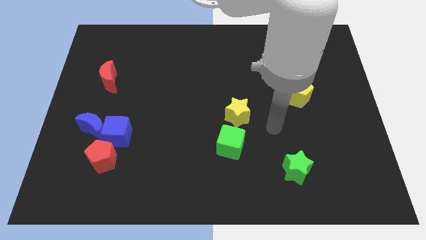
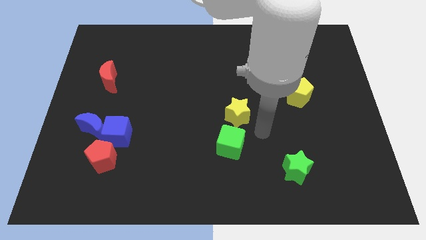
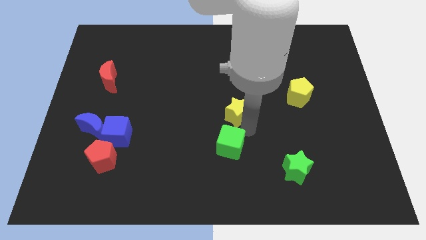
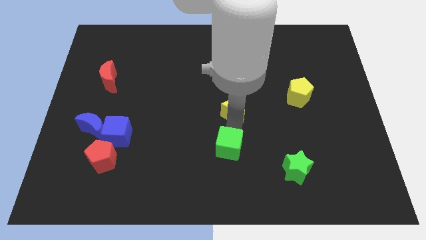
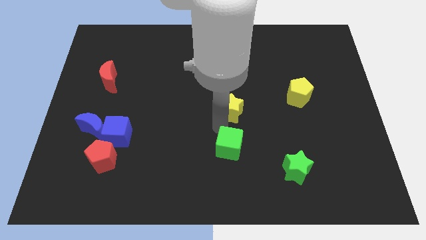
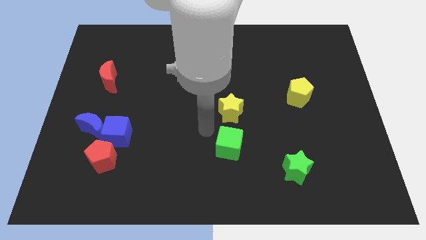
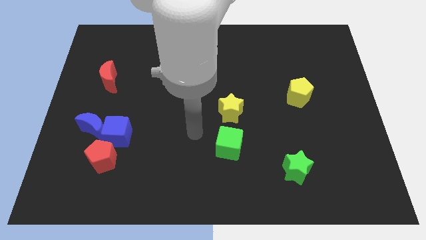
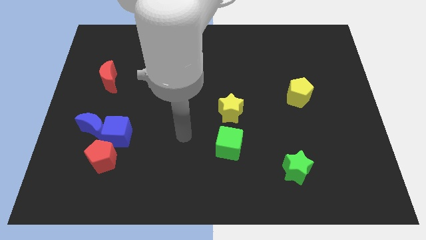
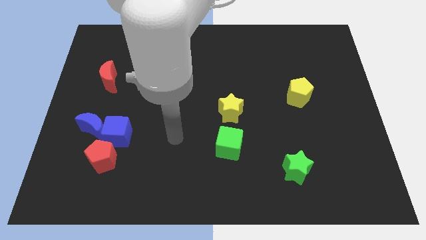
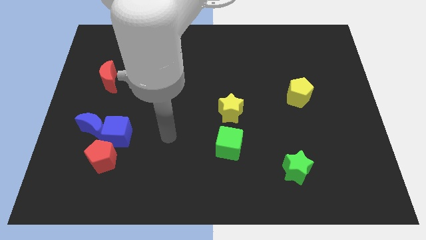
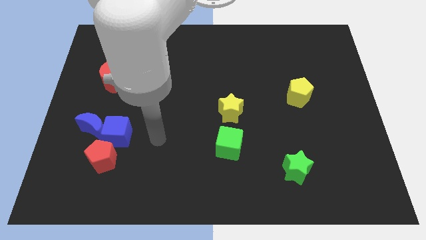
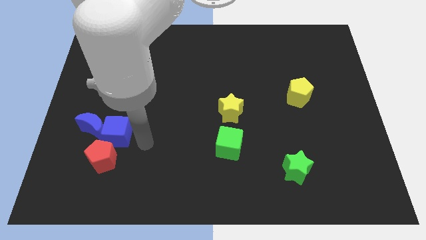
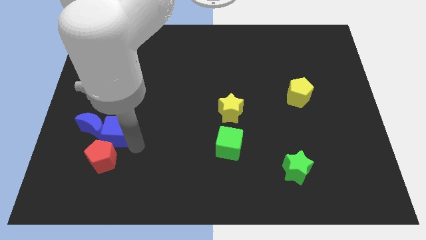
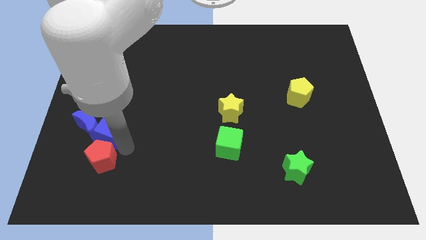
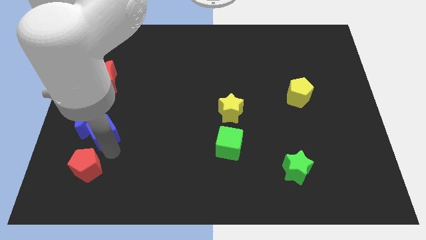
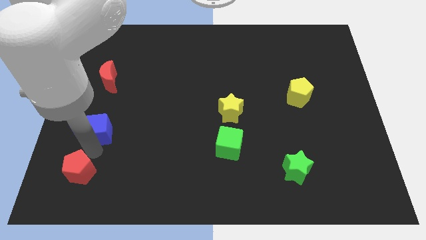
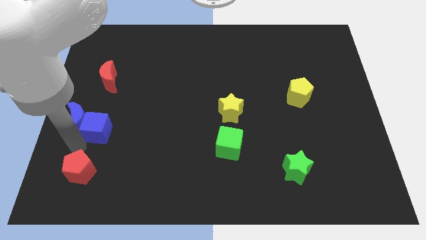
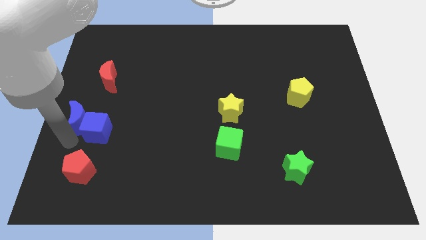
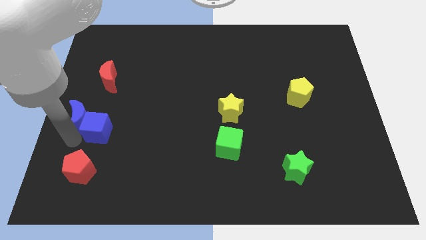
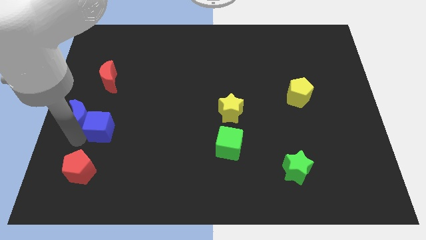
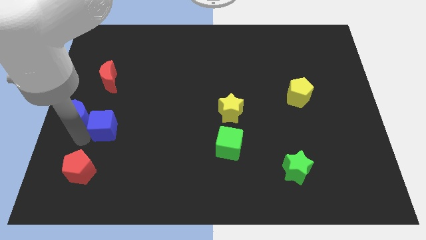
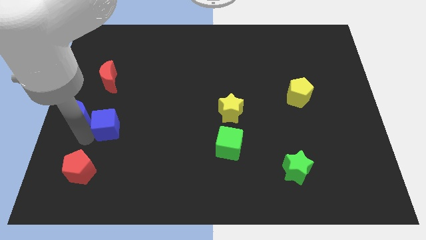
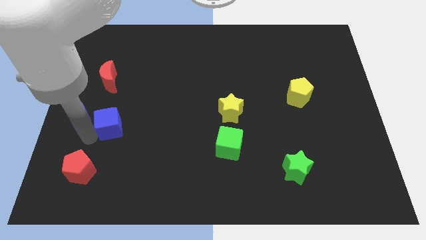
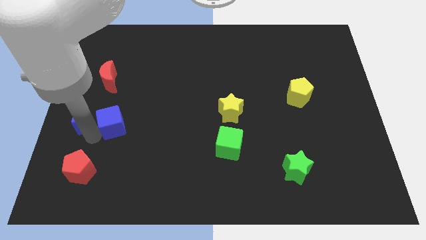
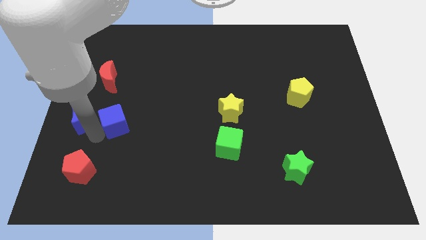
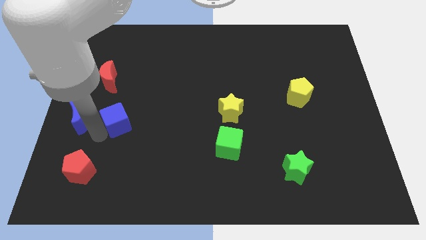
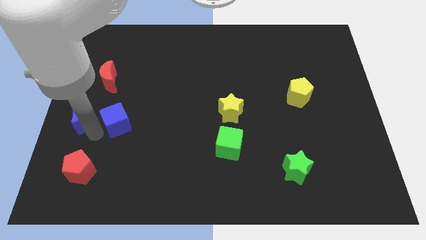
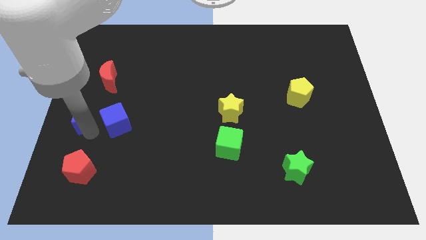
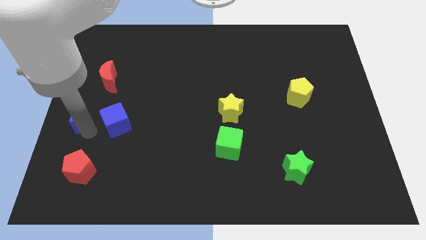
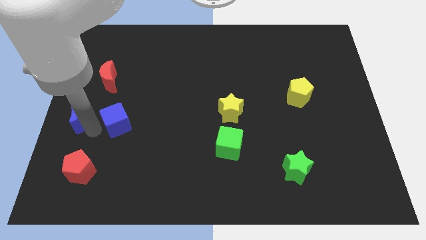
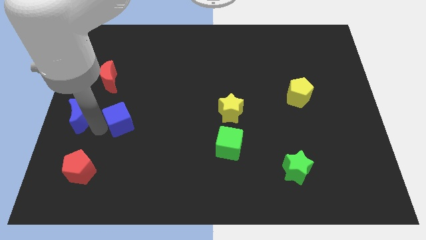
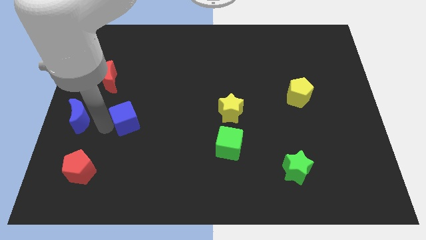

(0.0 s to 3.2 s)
separate the blue cube from the blue moon and red pentagon

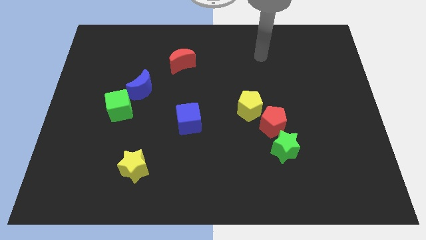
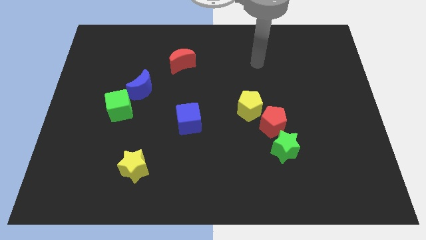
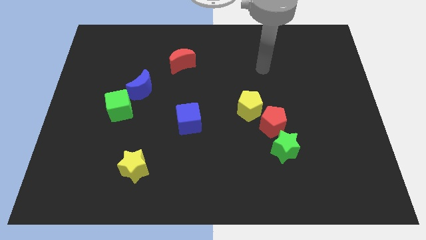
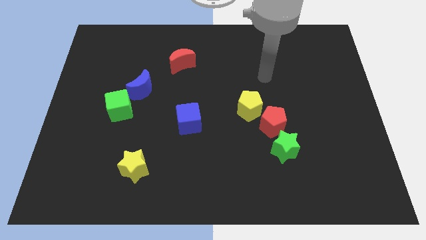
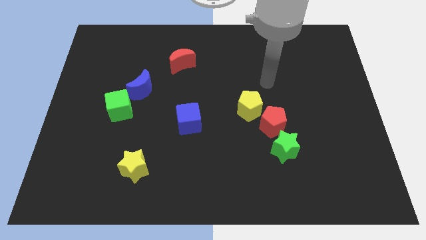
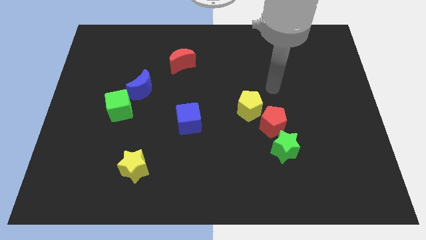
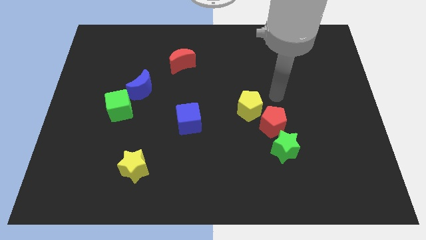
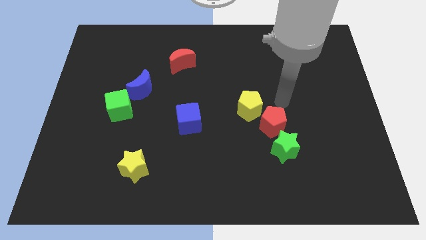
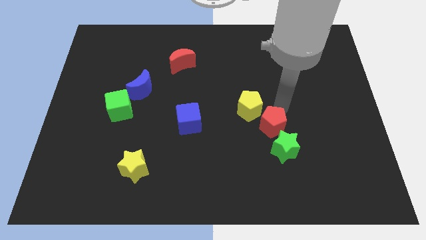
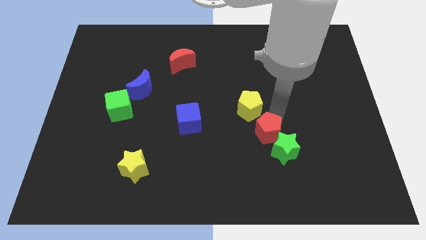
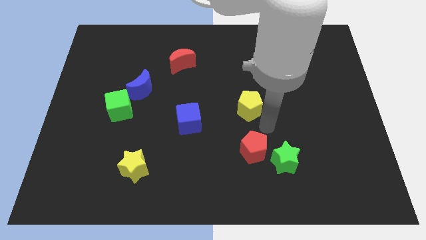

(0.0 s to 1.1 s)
separate the yellow pentagon from the red pentagon

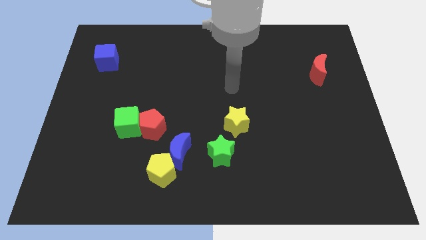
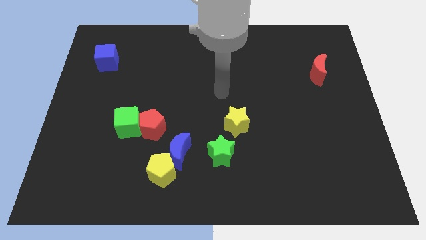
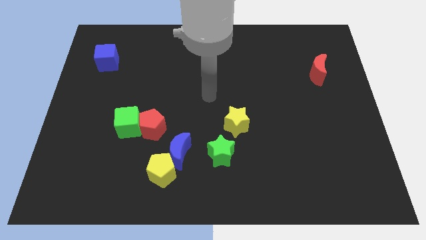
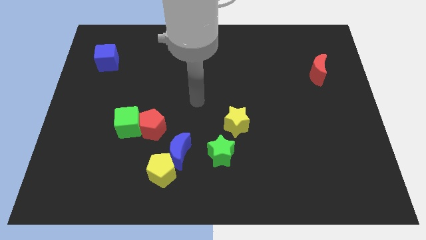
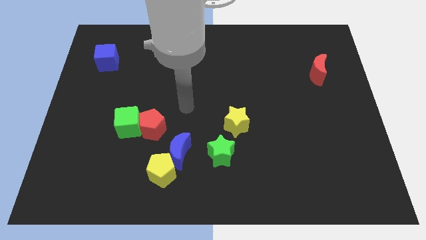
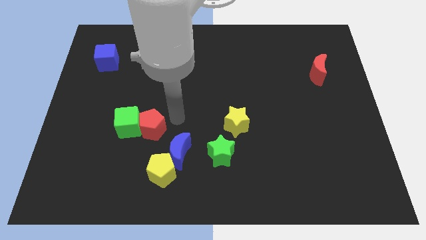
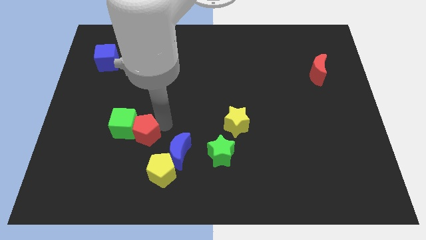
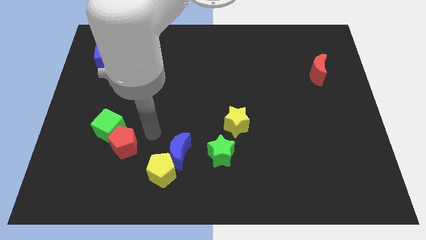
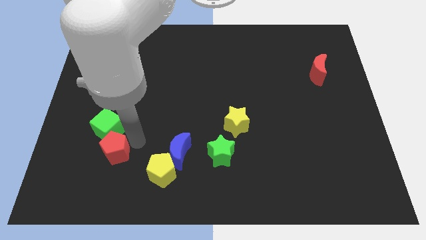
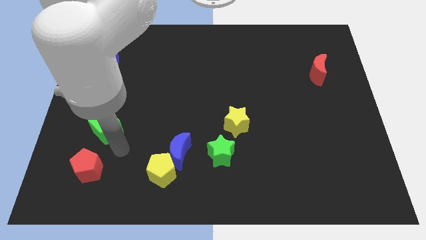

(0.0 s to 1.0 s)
move the green cube away from the red pentagon

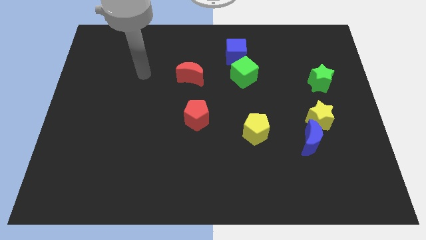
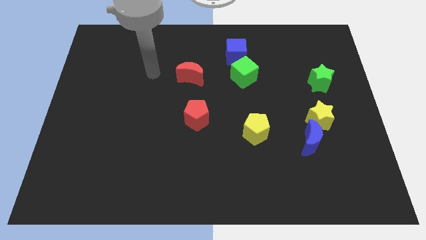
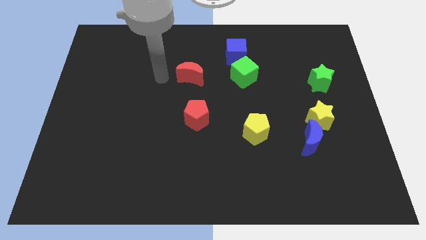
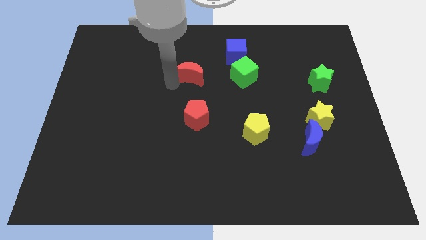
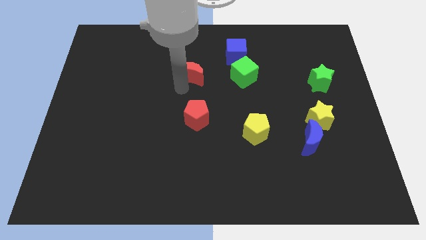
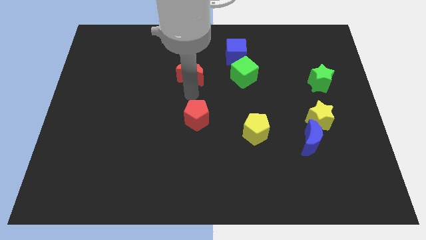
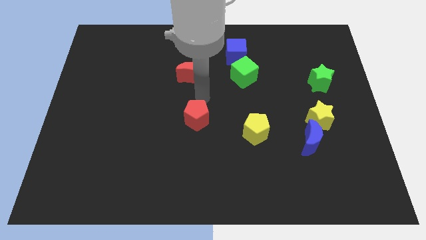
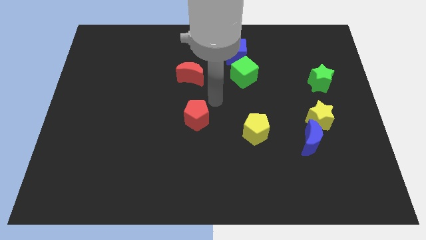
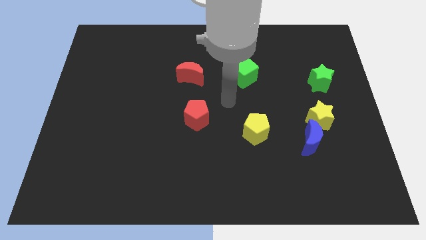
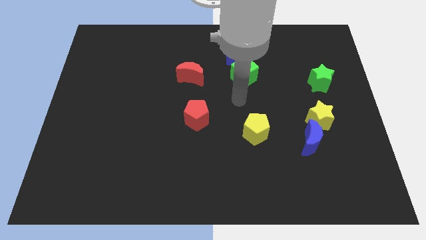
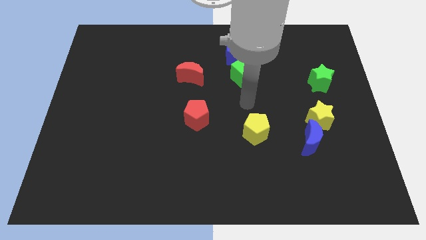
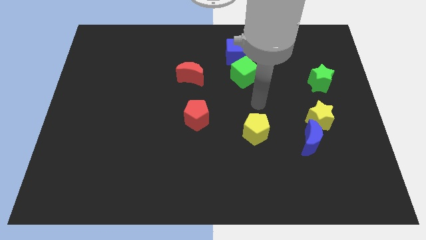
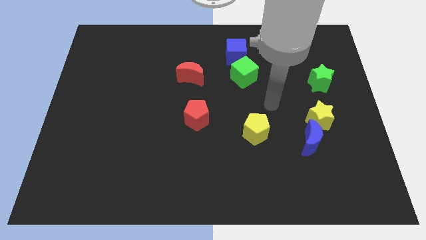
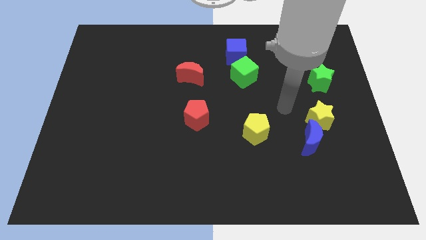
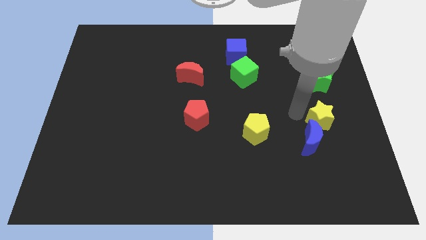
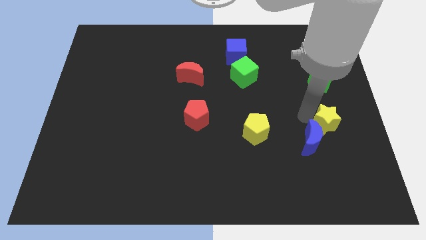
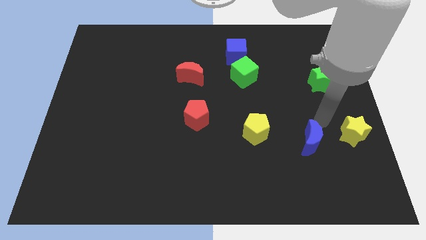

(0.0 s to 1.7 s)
separate the blue moon from the yellow star

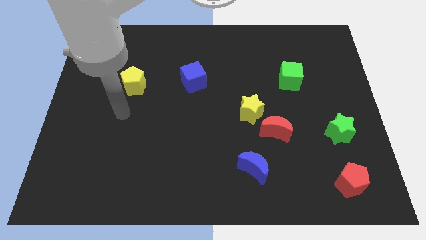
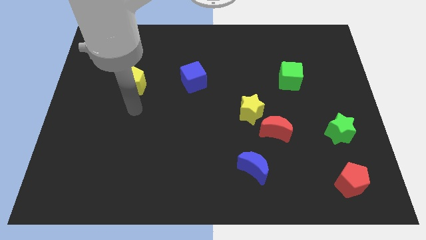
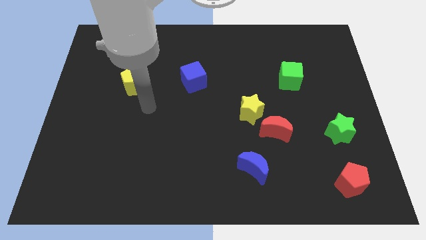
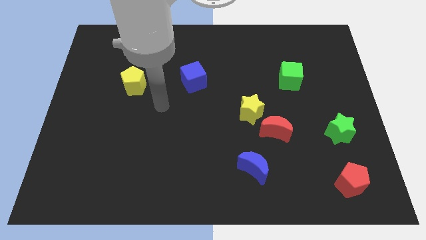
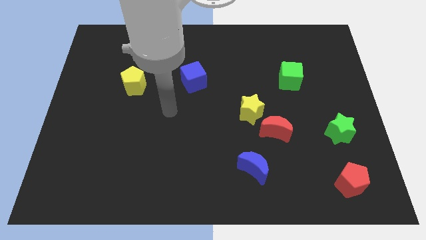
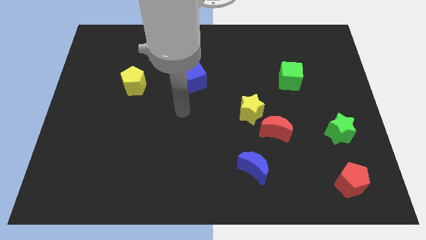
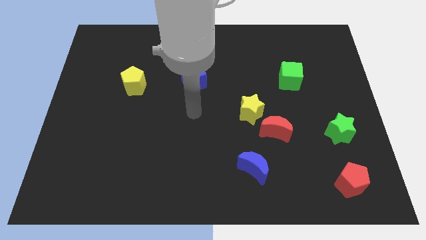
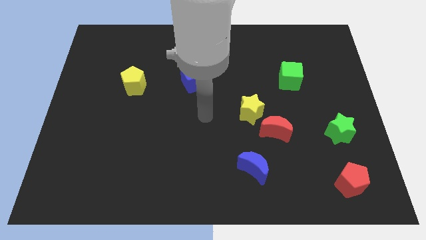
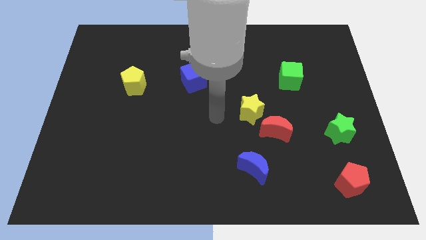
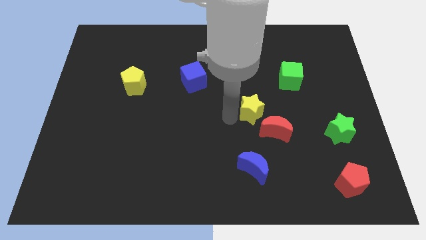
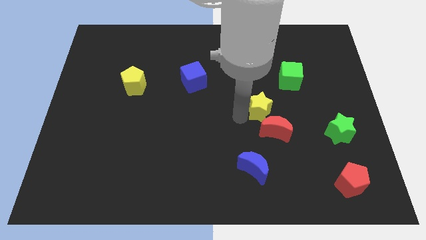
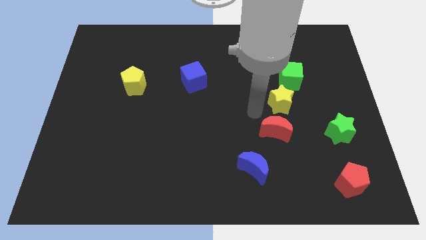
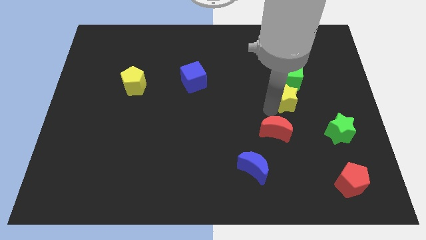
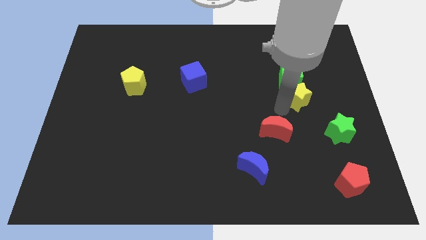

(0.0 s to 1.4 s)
move the red moon away from the yellow star

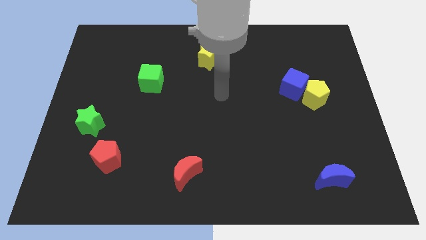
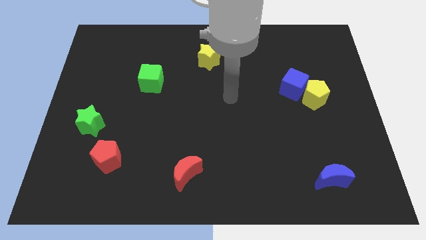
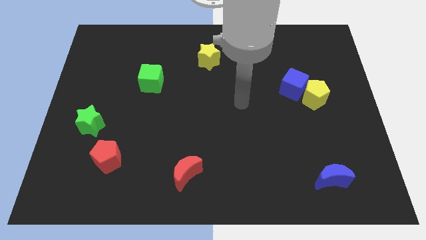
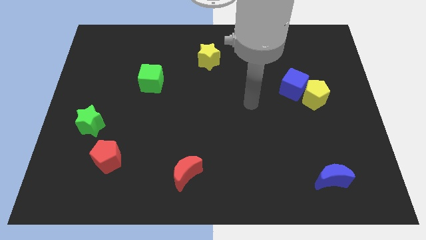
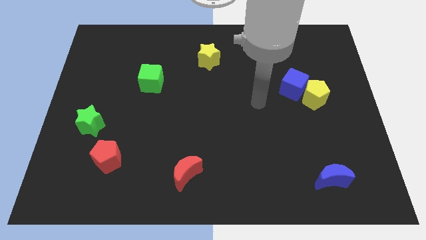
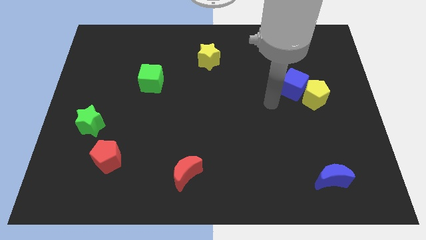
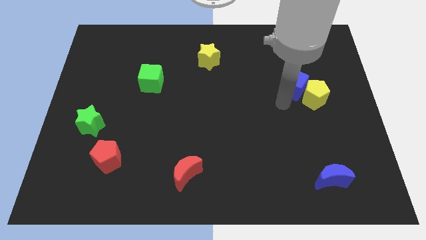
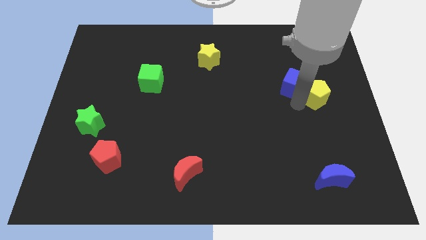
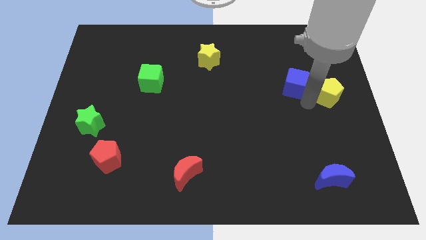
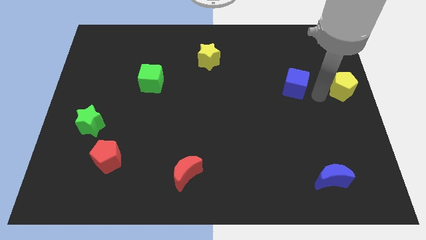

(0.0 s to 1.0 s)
pull the blue cube apart from the yellow pentagon
